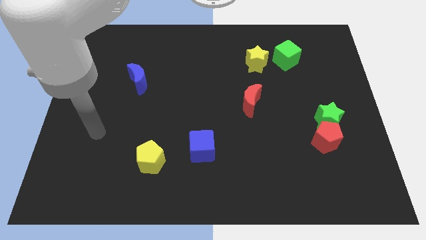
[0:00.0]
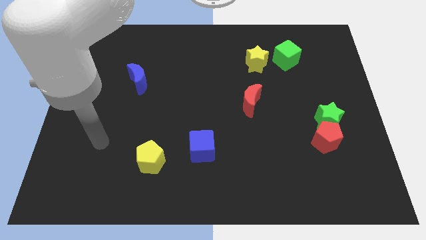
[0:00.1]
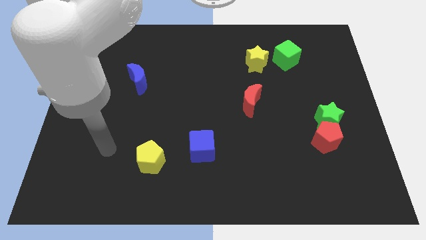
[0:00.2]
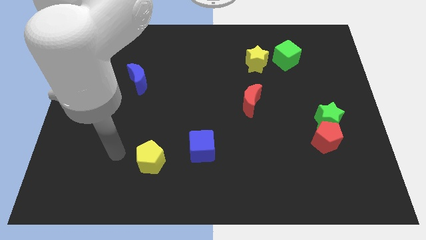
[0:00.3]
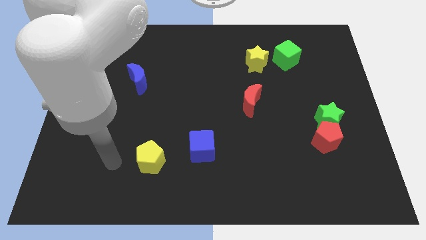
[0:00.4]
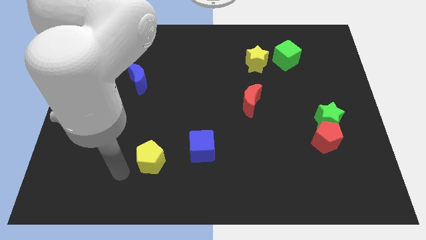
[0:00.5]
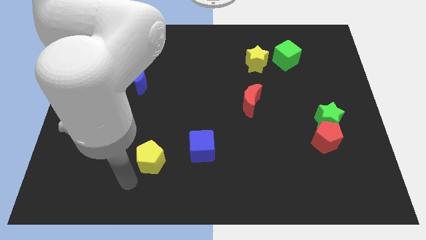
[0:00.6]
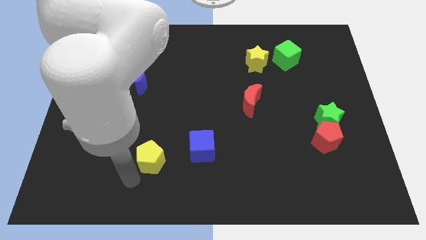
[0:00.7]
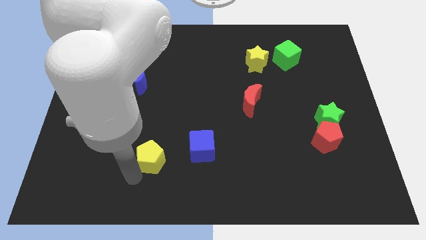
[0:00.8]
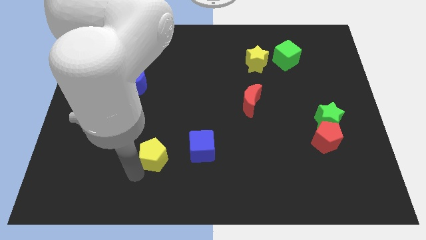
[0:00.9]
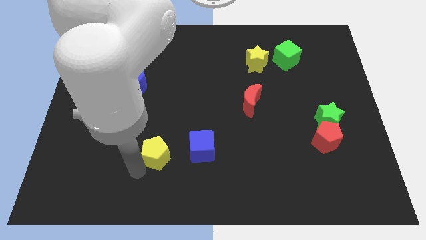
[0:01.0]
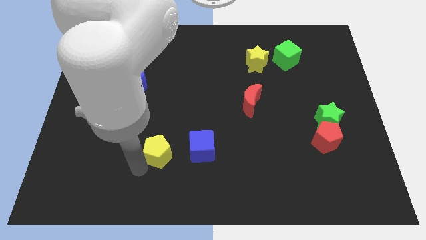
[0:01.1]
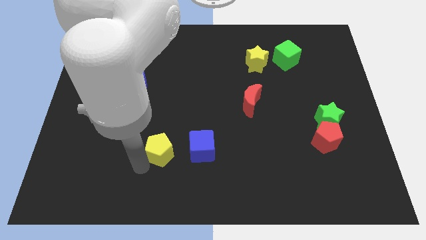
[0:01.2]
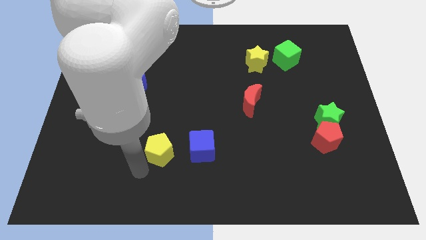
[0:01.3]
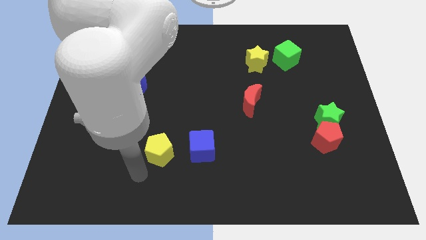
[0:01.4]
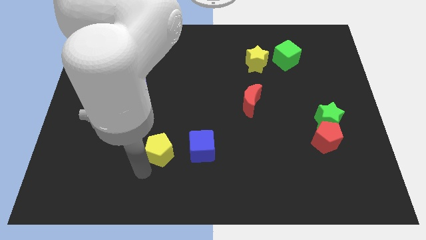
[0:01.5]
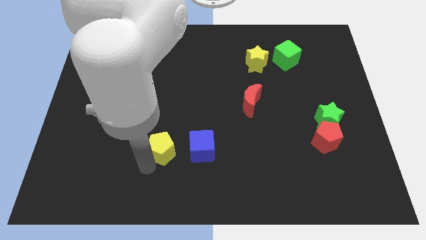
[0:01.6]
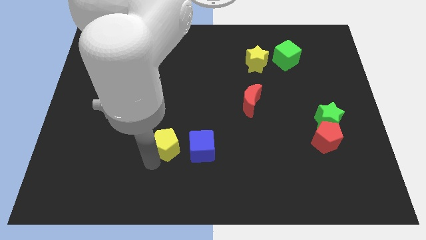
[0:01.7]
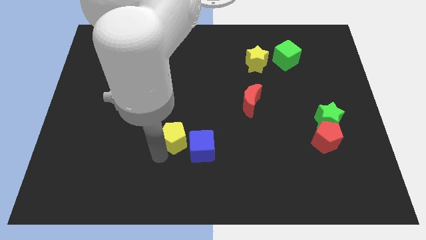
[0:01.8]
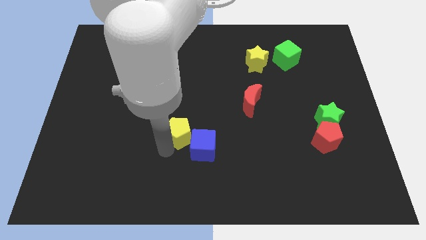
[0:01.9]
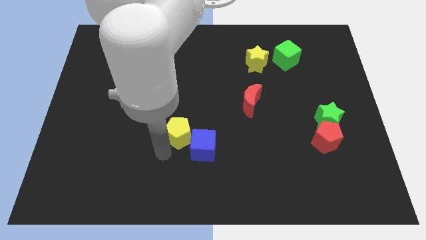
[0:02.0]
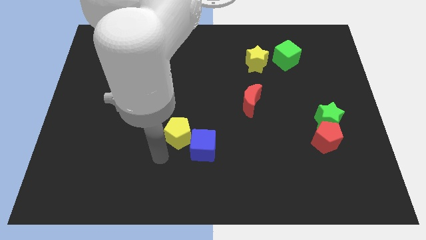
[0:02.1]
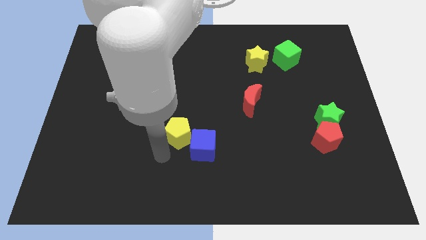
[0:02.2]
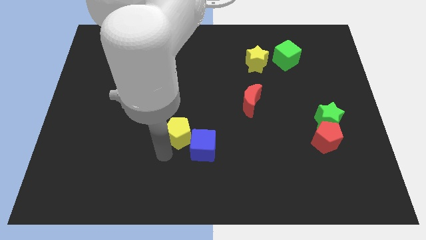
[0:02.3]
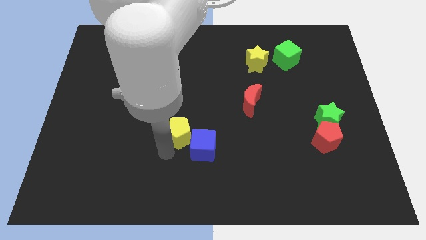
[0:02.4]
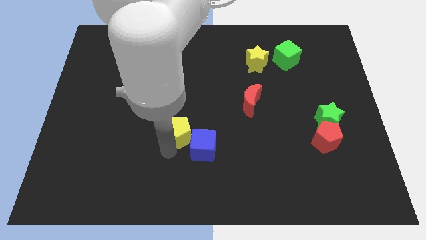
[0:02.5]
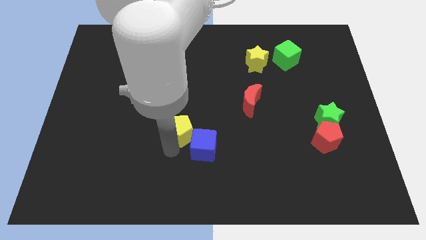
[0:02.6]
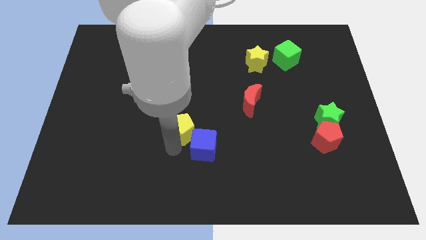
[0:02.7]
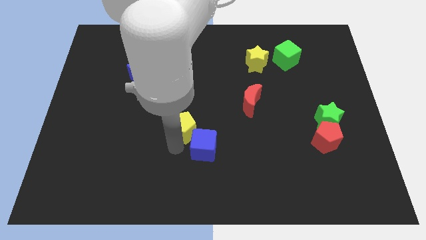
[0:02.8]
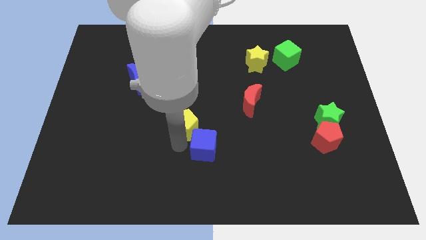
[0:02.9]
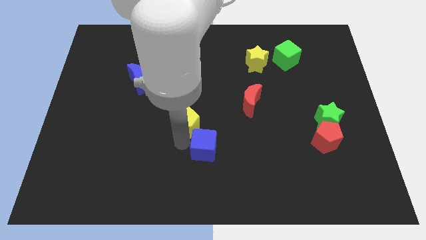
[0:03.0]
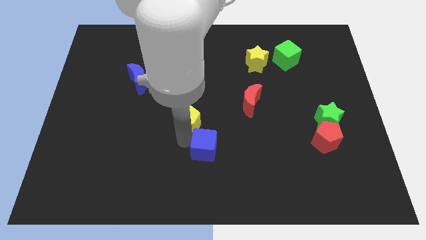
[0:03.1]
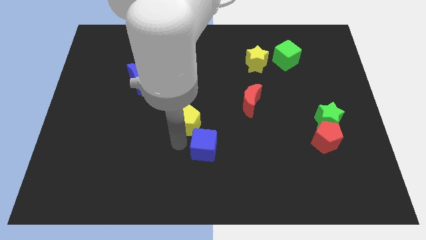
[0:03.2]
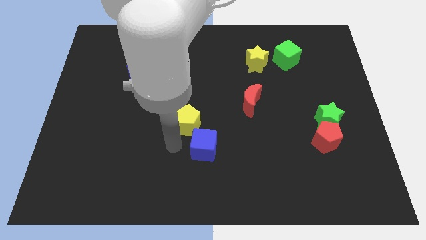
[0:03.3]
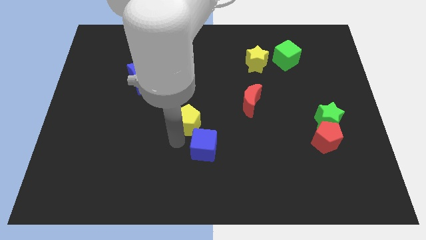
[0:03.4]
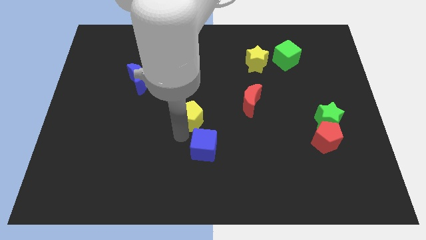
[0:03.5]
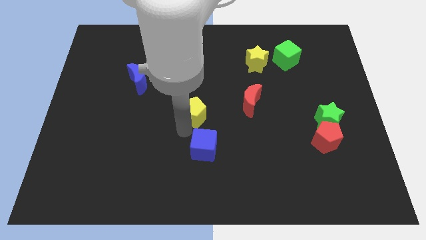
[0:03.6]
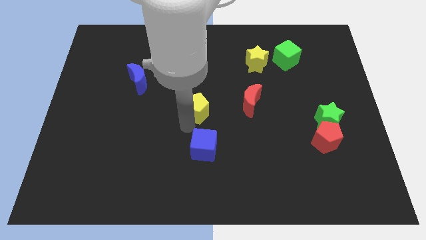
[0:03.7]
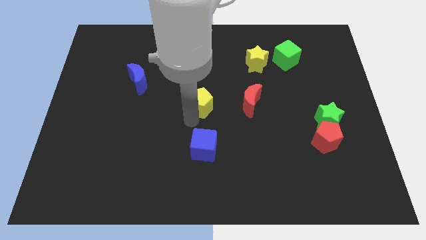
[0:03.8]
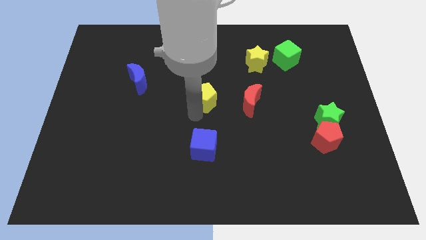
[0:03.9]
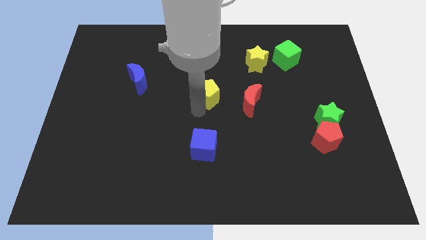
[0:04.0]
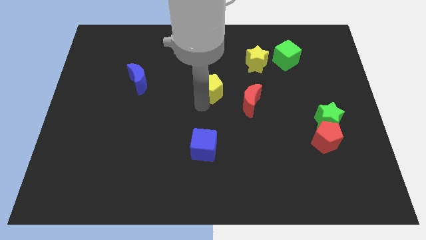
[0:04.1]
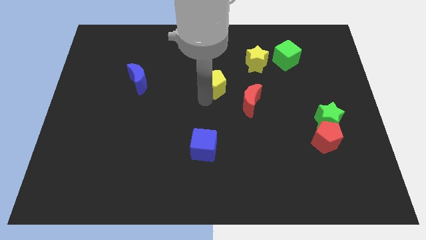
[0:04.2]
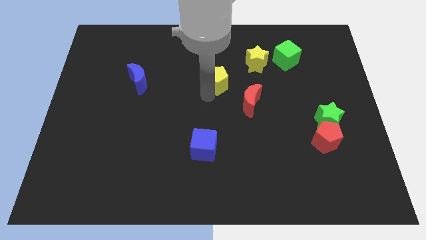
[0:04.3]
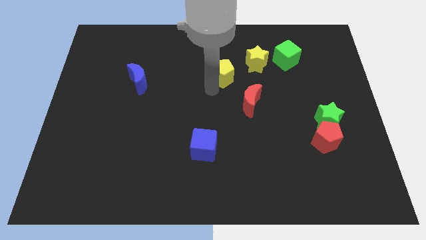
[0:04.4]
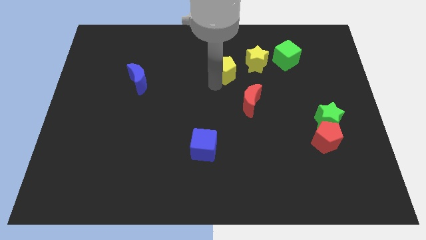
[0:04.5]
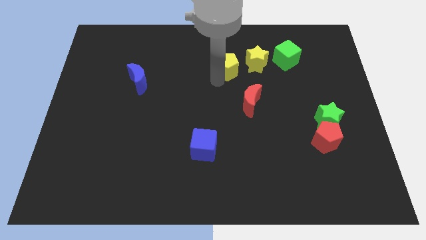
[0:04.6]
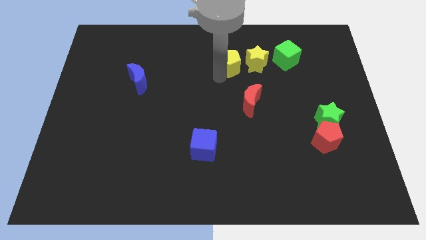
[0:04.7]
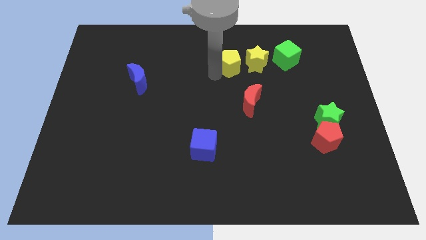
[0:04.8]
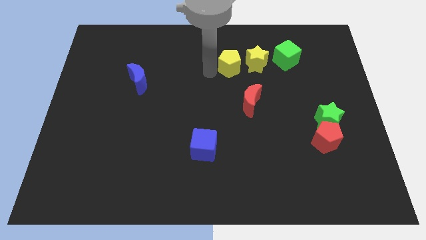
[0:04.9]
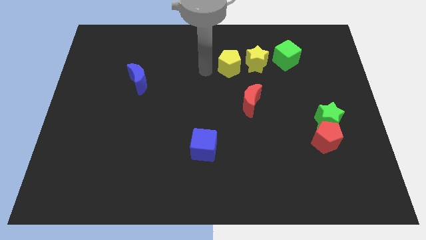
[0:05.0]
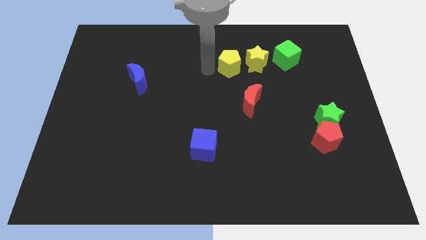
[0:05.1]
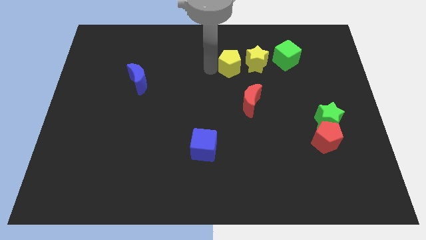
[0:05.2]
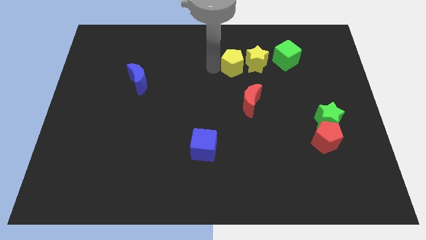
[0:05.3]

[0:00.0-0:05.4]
put the yellow pentagon to the yellow star

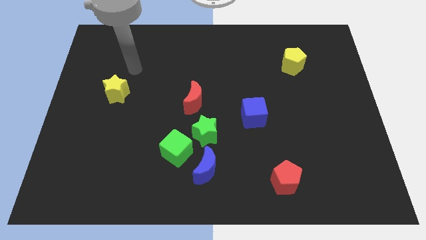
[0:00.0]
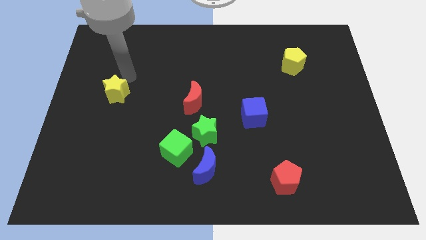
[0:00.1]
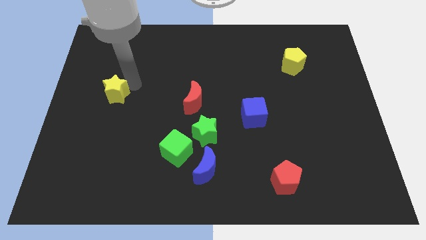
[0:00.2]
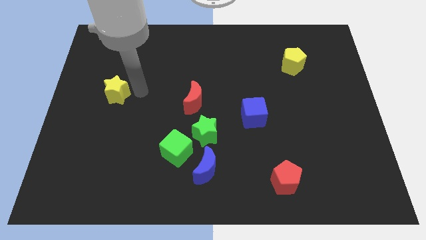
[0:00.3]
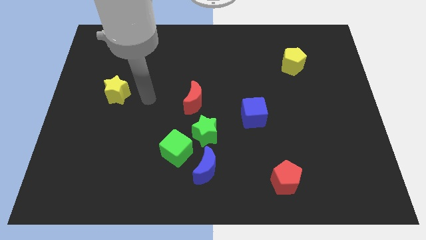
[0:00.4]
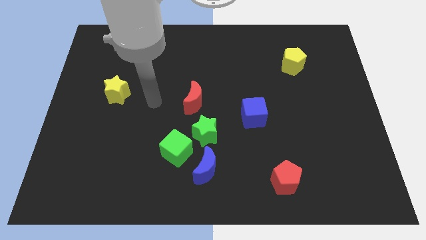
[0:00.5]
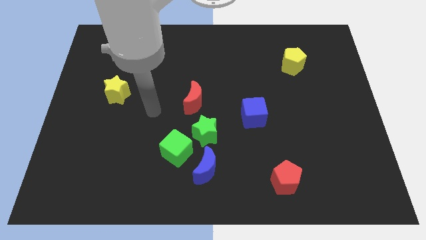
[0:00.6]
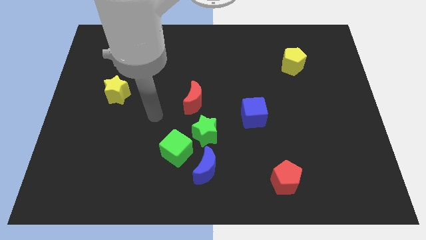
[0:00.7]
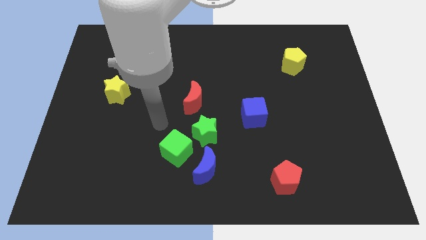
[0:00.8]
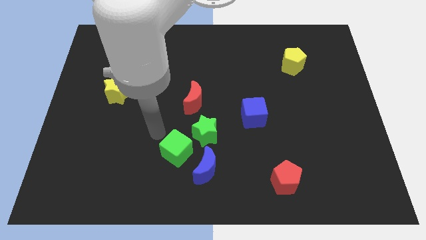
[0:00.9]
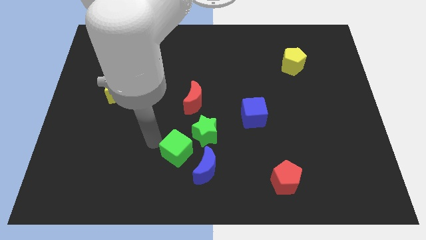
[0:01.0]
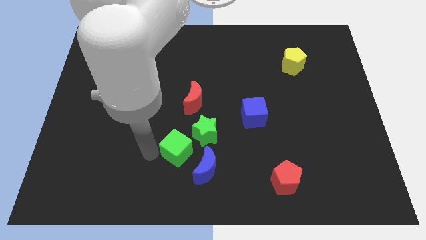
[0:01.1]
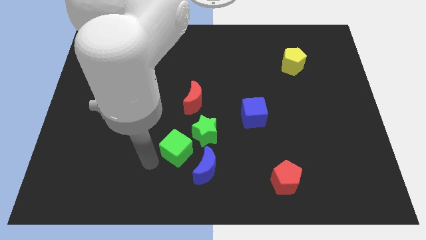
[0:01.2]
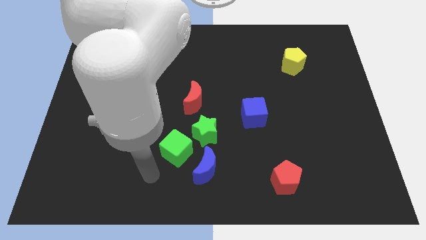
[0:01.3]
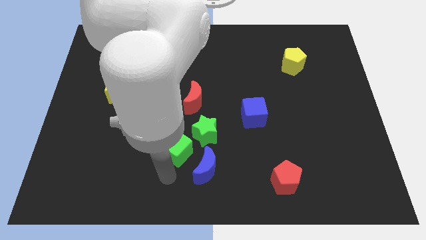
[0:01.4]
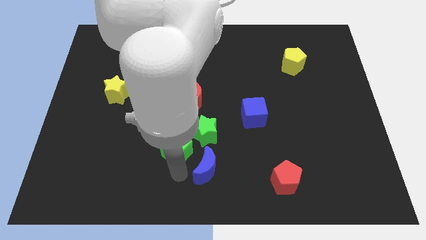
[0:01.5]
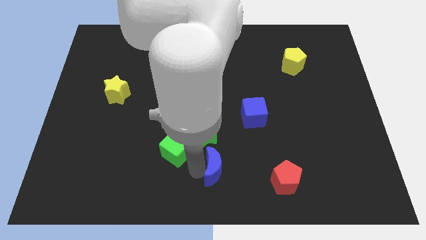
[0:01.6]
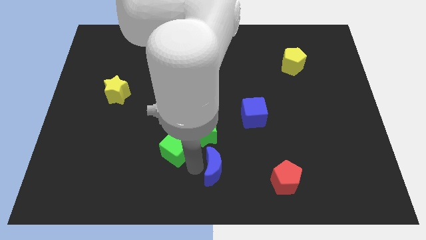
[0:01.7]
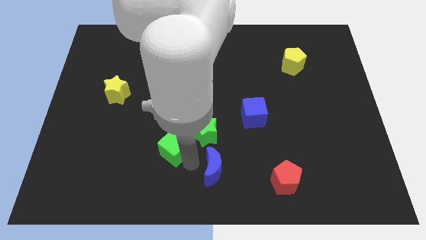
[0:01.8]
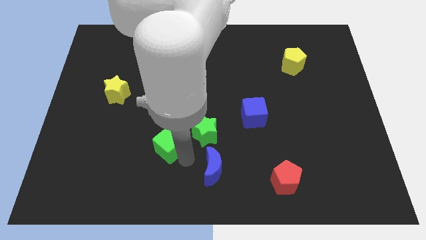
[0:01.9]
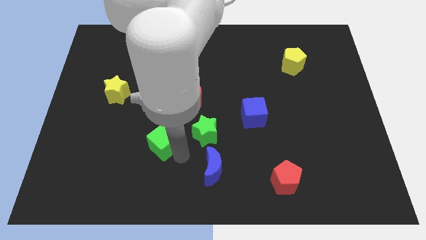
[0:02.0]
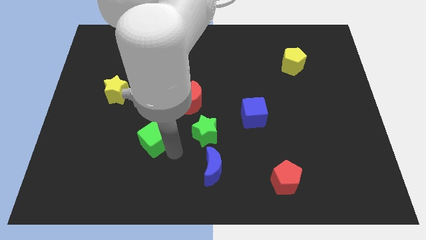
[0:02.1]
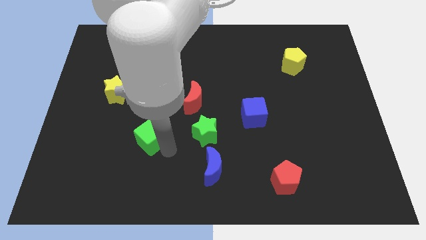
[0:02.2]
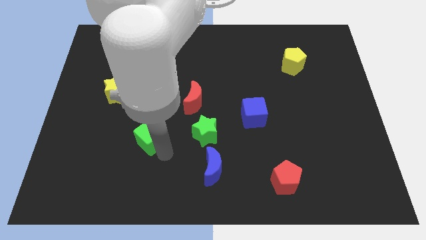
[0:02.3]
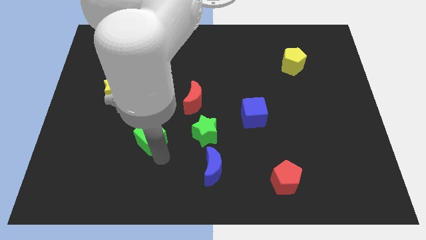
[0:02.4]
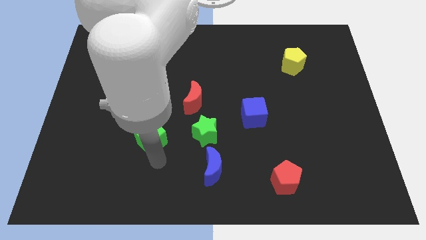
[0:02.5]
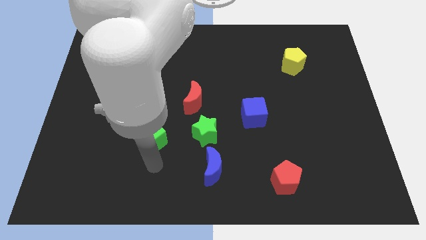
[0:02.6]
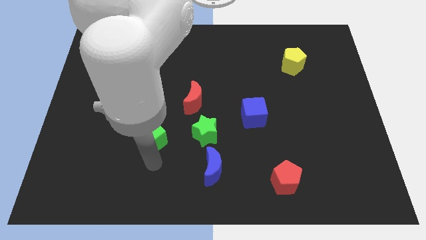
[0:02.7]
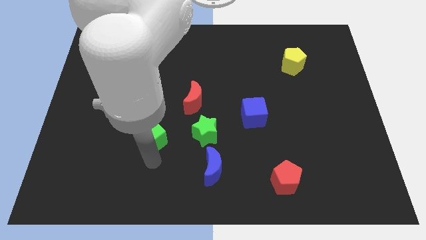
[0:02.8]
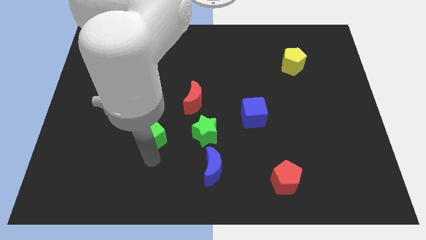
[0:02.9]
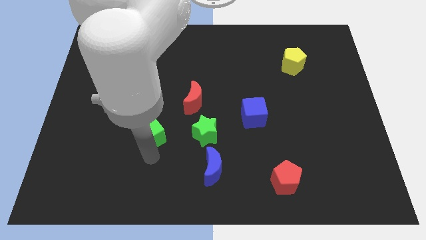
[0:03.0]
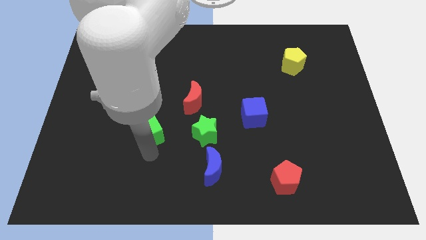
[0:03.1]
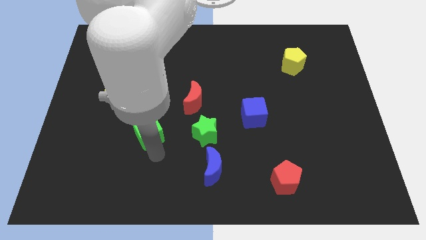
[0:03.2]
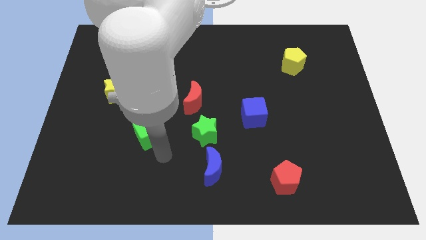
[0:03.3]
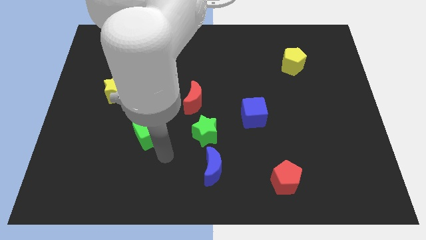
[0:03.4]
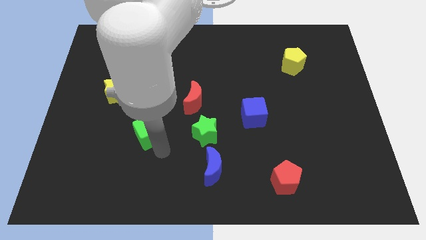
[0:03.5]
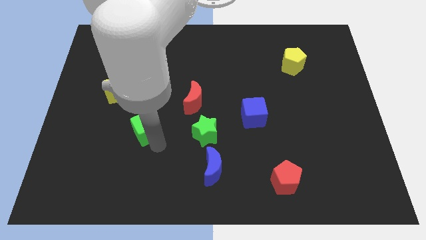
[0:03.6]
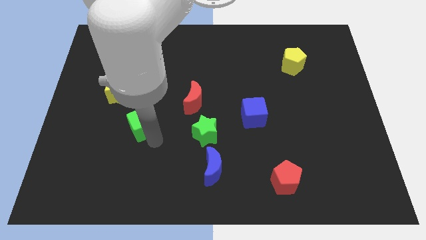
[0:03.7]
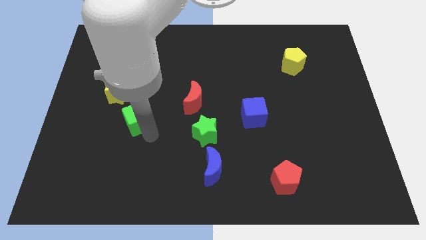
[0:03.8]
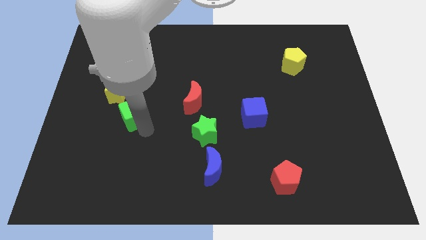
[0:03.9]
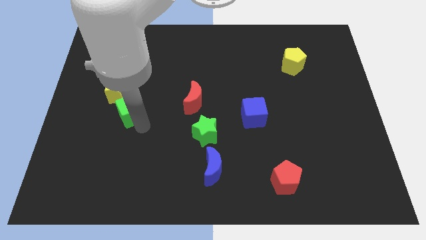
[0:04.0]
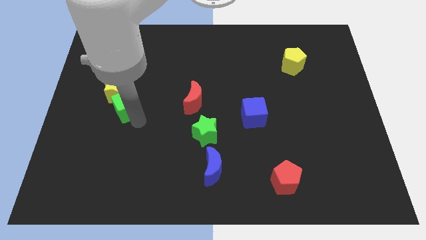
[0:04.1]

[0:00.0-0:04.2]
move the green cube next to the yellow star
